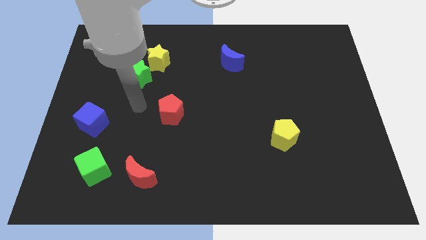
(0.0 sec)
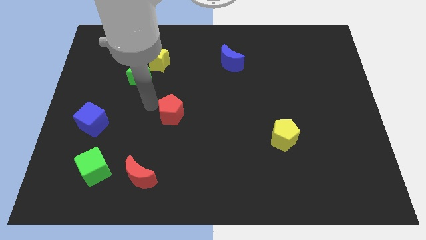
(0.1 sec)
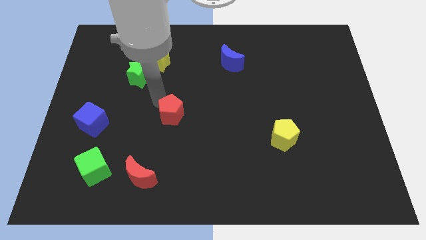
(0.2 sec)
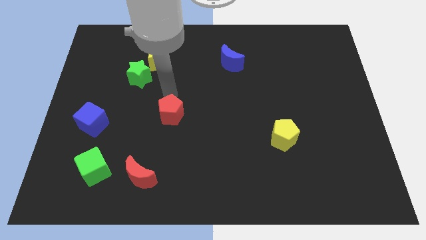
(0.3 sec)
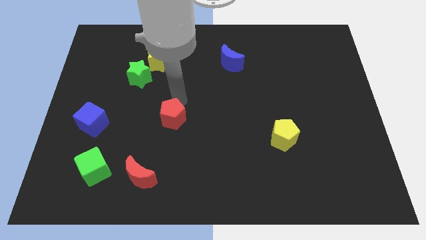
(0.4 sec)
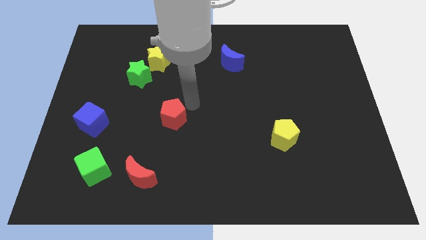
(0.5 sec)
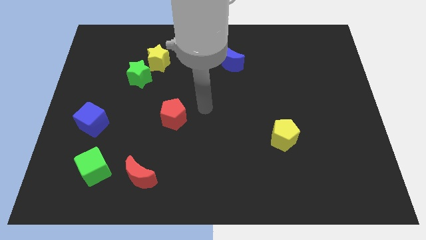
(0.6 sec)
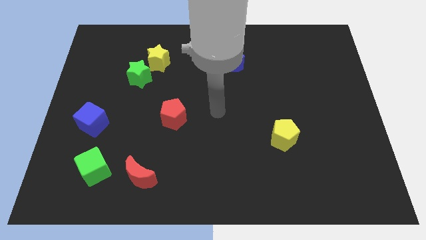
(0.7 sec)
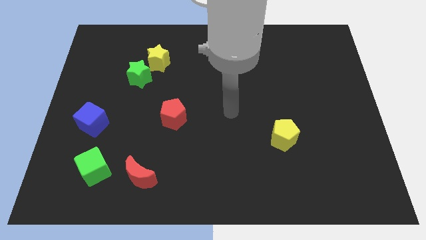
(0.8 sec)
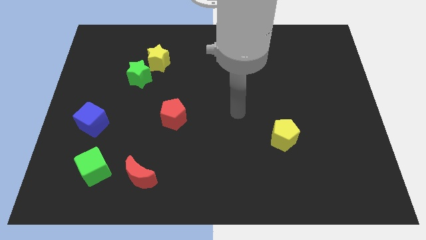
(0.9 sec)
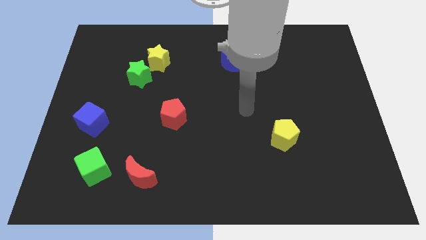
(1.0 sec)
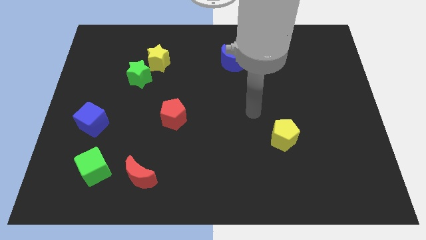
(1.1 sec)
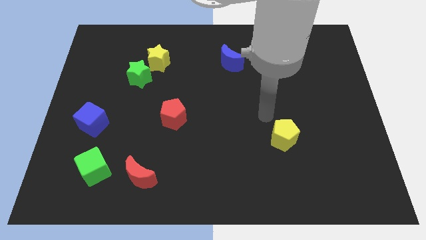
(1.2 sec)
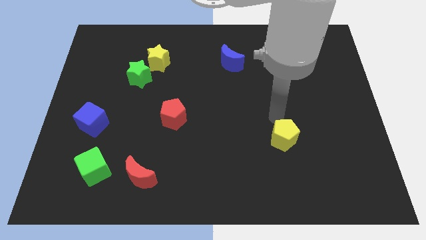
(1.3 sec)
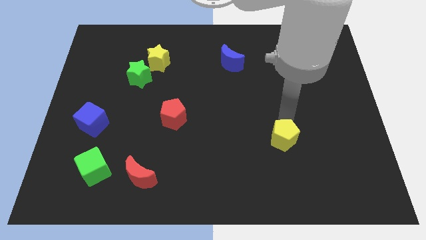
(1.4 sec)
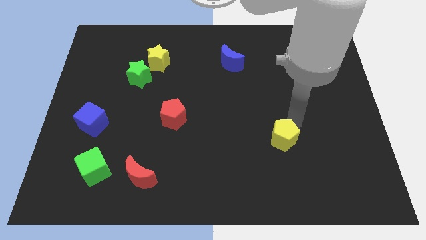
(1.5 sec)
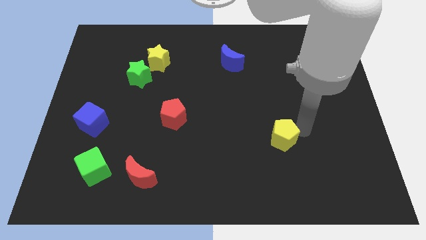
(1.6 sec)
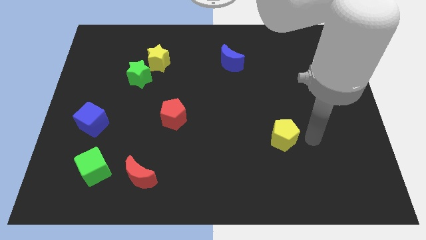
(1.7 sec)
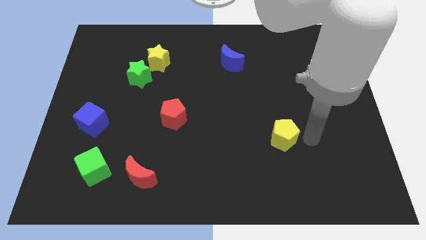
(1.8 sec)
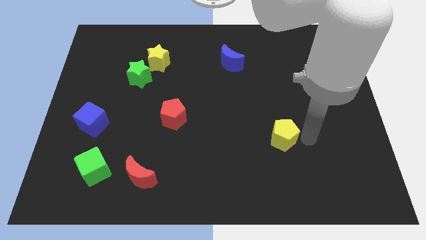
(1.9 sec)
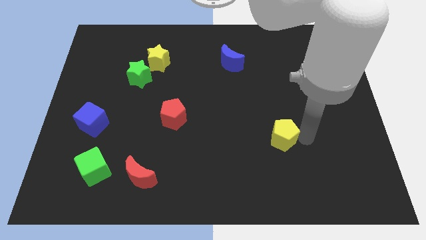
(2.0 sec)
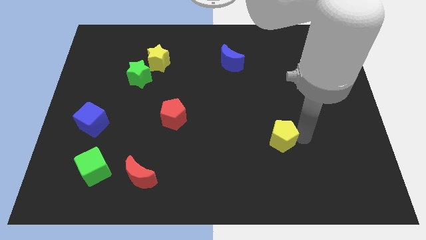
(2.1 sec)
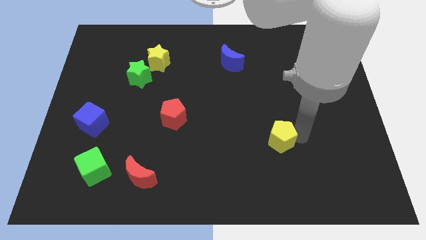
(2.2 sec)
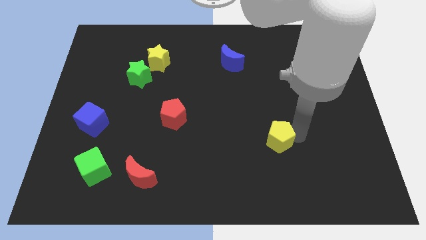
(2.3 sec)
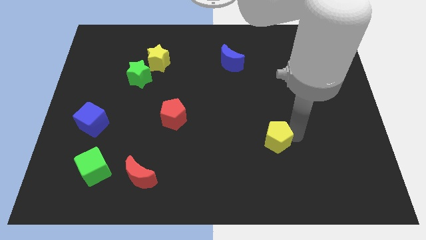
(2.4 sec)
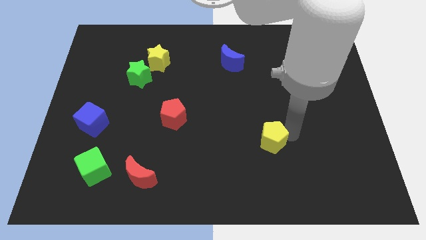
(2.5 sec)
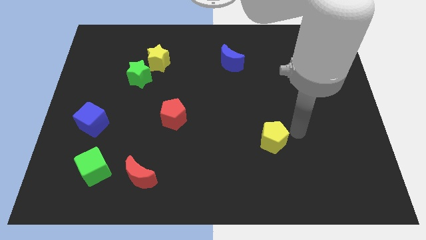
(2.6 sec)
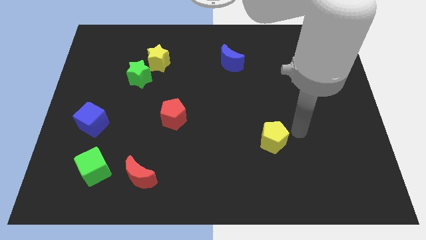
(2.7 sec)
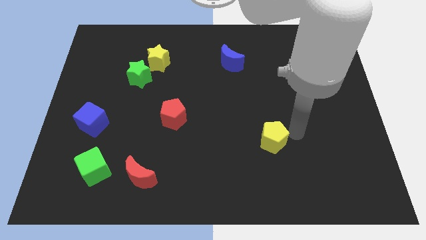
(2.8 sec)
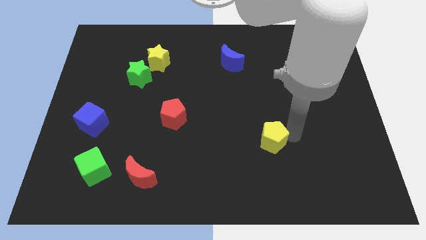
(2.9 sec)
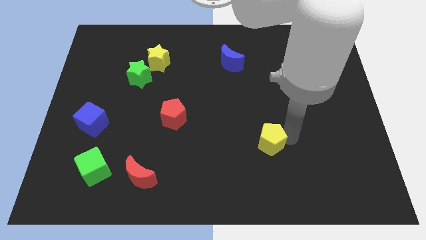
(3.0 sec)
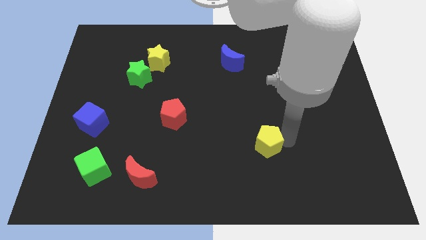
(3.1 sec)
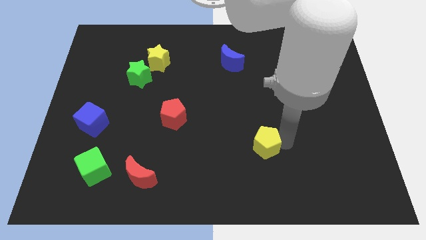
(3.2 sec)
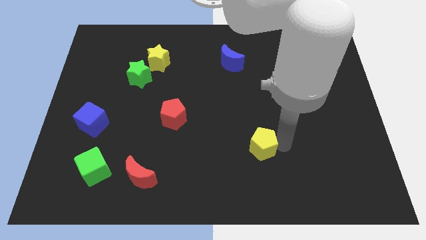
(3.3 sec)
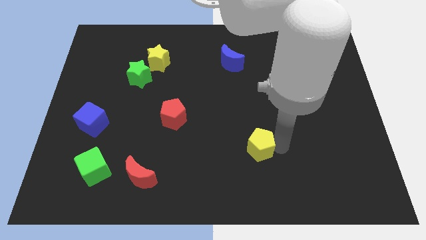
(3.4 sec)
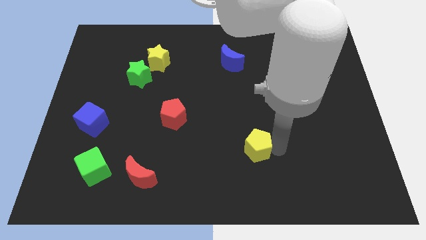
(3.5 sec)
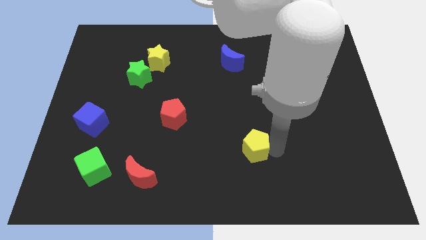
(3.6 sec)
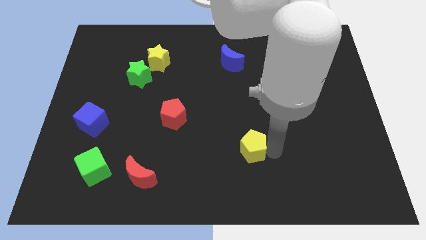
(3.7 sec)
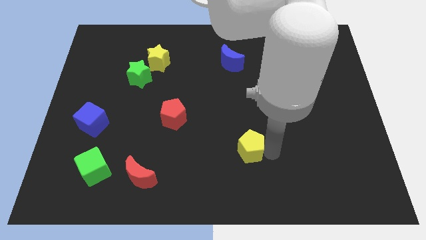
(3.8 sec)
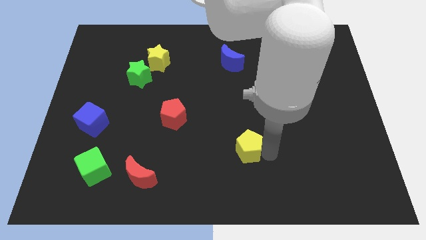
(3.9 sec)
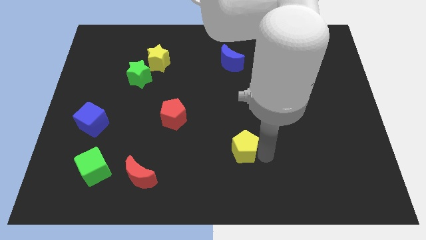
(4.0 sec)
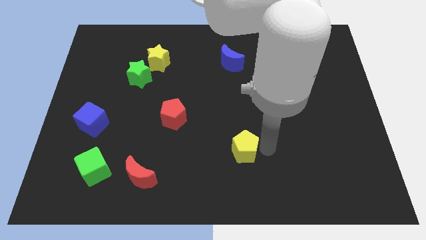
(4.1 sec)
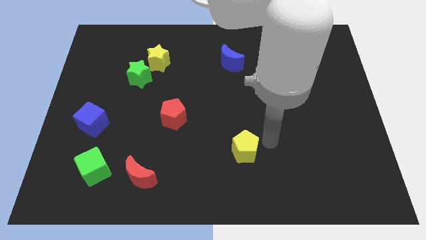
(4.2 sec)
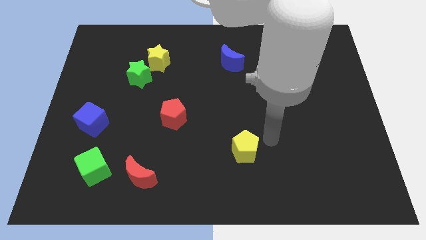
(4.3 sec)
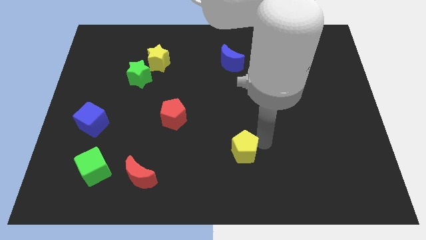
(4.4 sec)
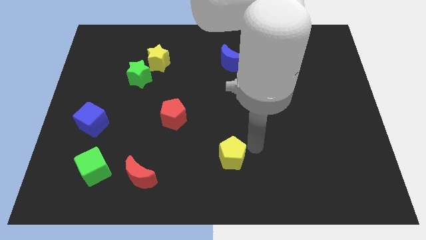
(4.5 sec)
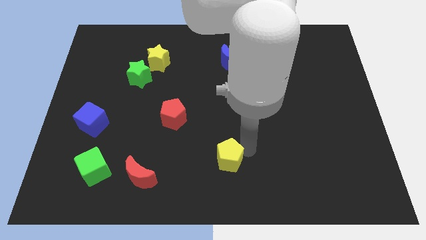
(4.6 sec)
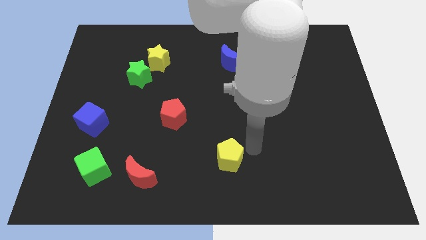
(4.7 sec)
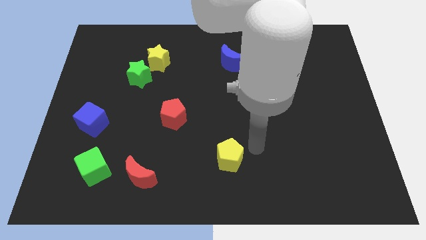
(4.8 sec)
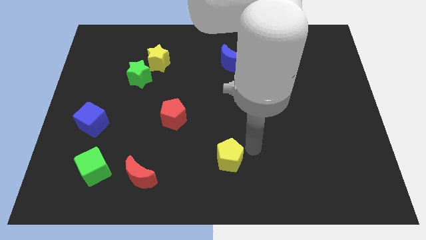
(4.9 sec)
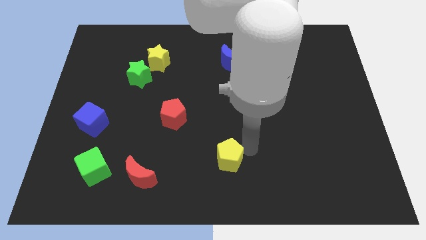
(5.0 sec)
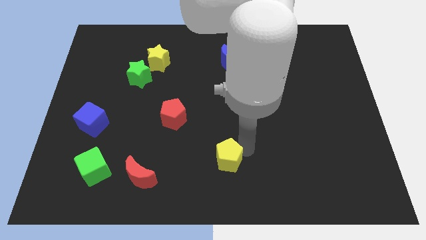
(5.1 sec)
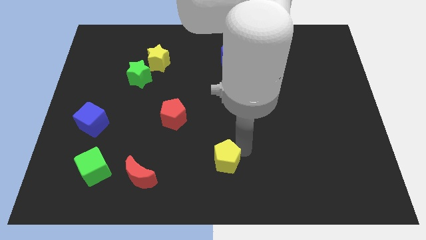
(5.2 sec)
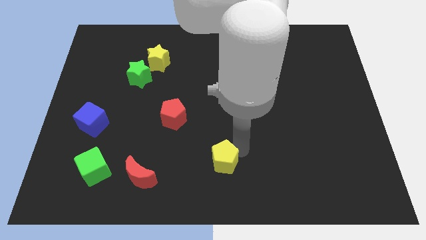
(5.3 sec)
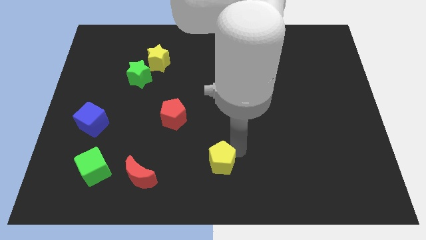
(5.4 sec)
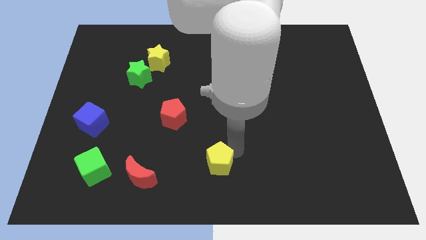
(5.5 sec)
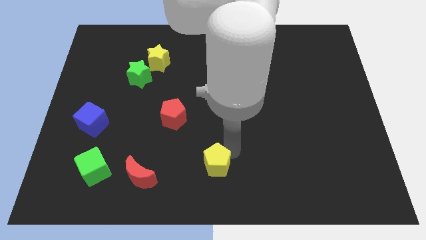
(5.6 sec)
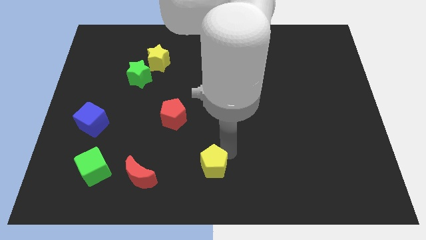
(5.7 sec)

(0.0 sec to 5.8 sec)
move the yellow pentagon just right of the red moon
